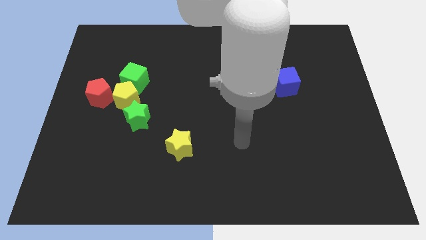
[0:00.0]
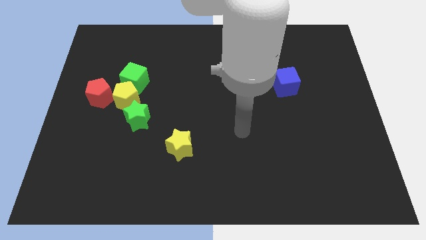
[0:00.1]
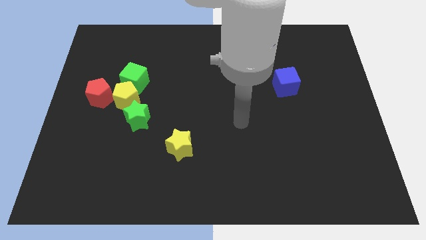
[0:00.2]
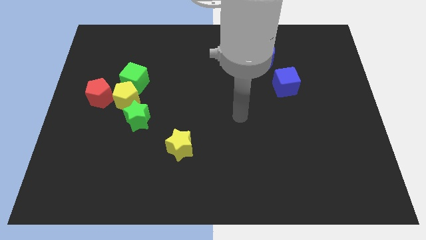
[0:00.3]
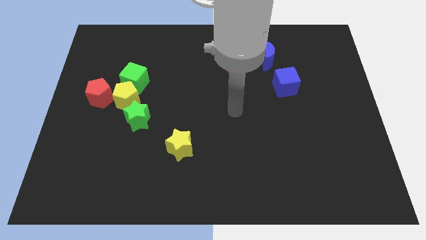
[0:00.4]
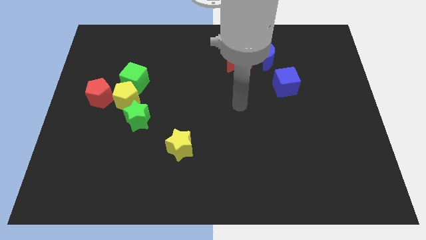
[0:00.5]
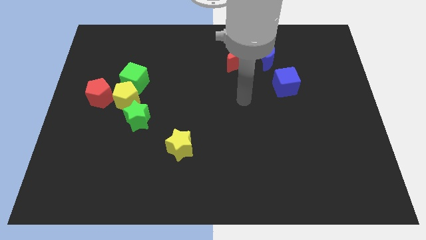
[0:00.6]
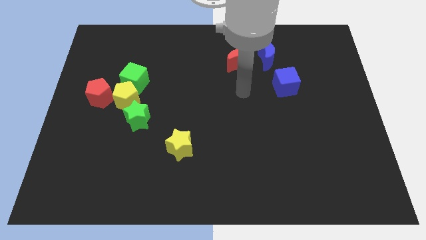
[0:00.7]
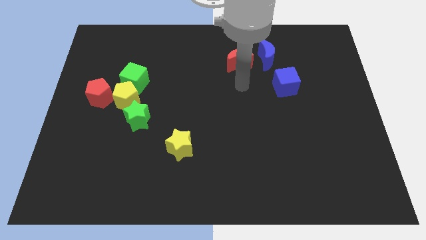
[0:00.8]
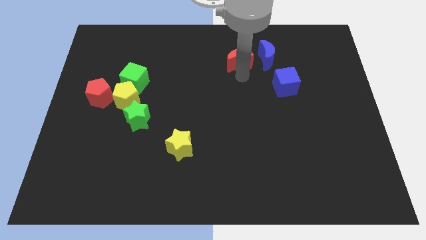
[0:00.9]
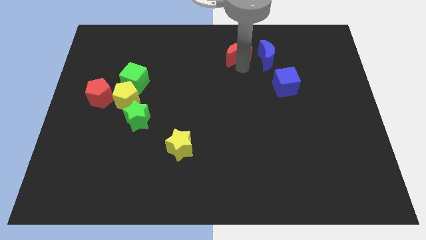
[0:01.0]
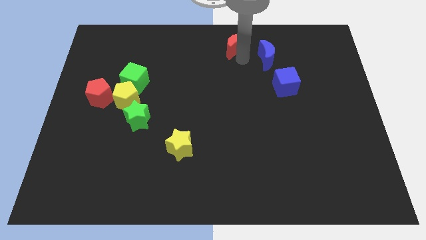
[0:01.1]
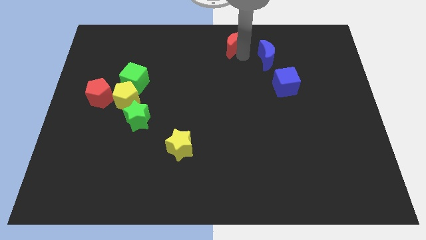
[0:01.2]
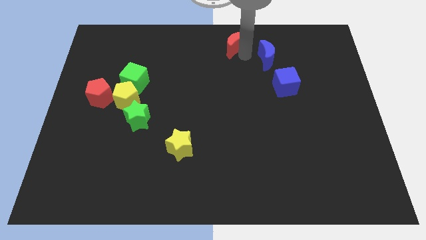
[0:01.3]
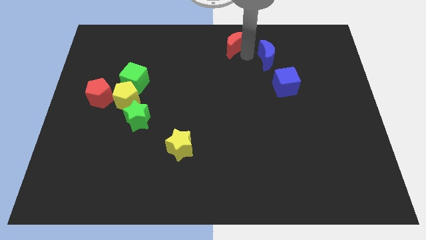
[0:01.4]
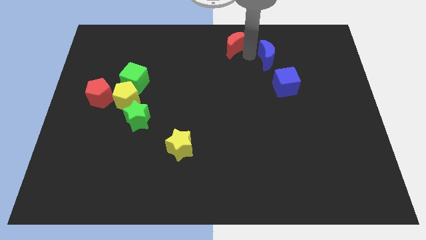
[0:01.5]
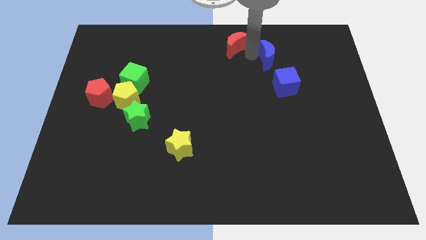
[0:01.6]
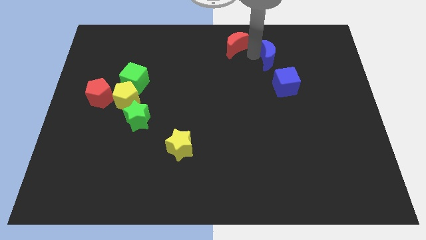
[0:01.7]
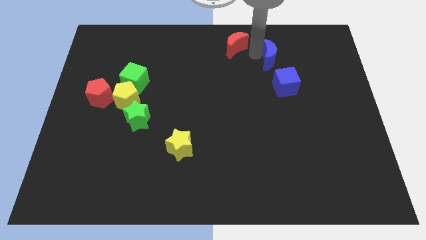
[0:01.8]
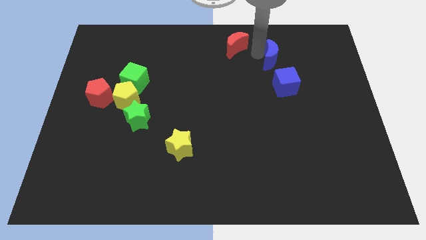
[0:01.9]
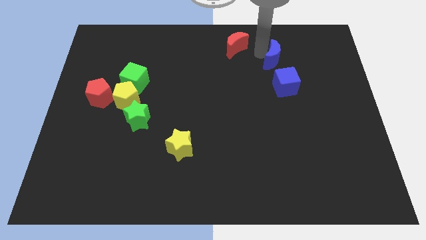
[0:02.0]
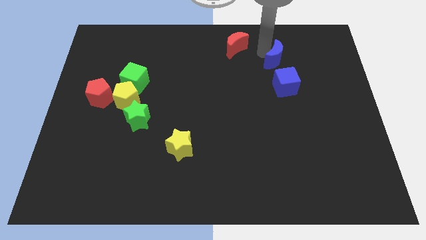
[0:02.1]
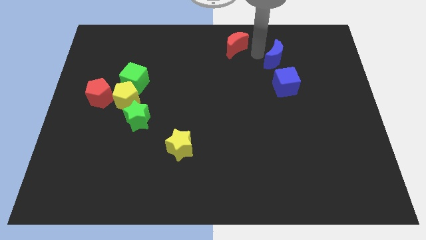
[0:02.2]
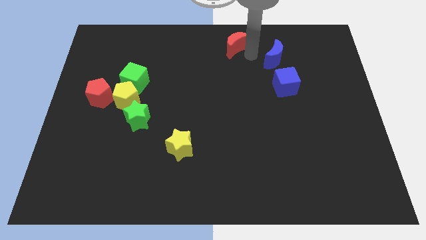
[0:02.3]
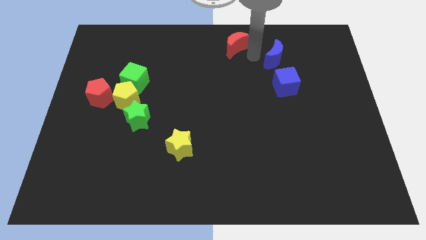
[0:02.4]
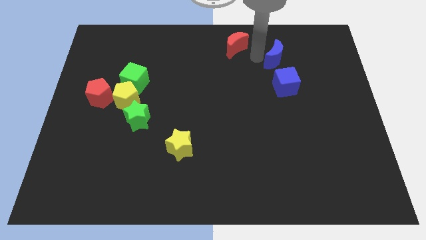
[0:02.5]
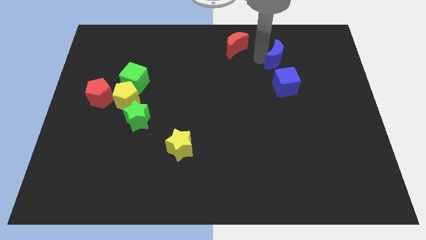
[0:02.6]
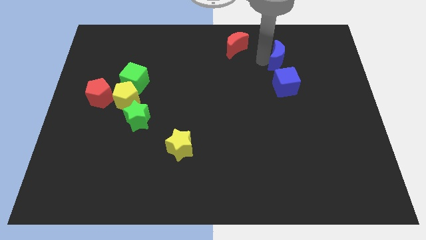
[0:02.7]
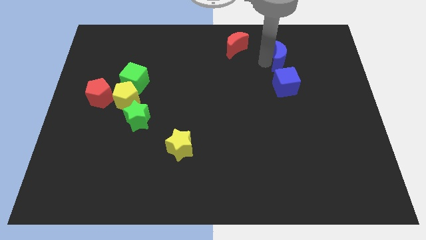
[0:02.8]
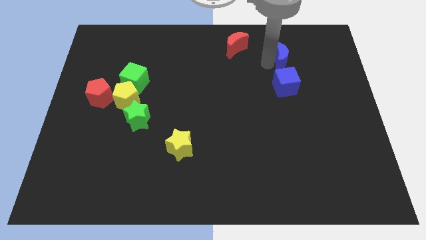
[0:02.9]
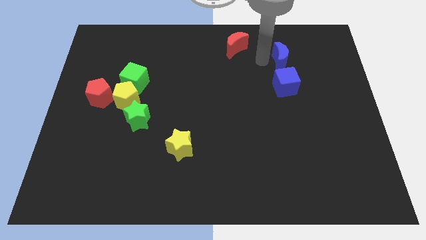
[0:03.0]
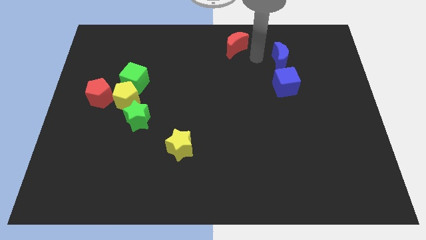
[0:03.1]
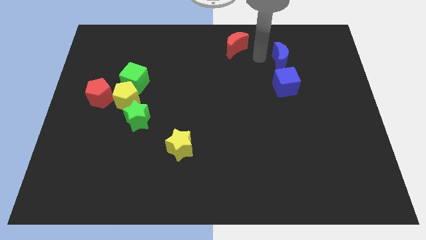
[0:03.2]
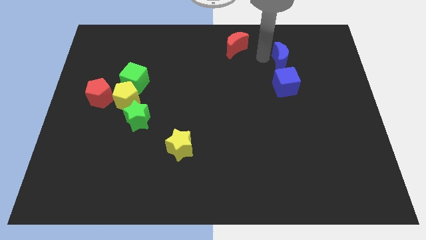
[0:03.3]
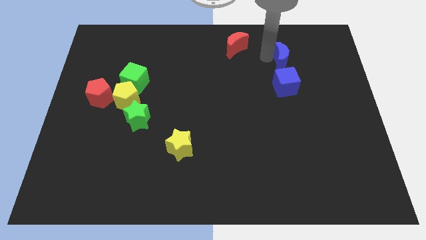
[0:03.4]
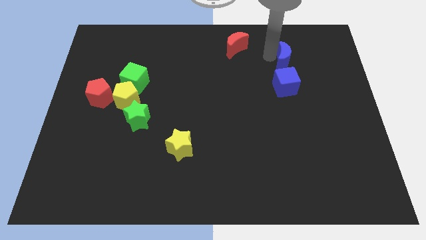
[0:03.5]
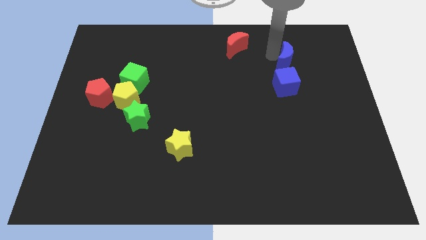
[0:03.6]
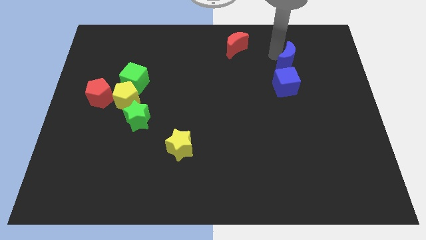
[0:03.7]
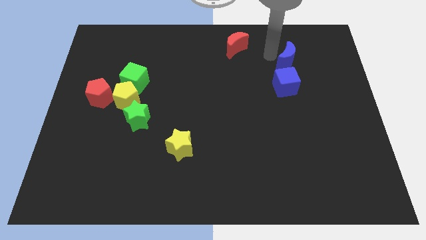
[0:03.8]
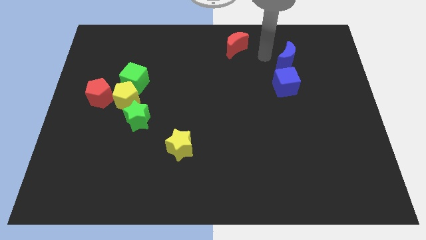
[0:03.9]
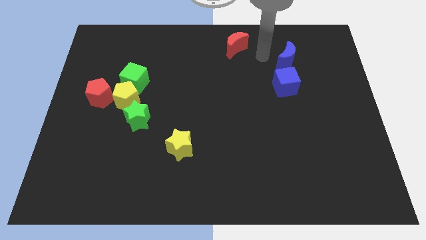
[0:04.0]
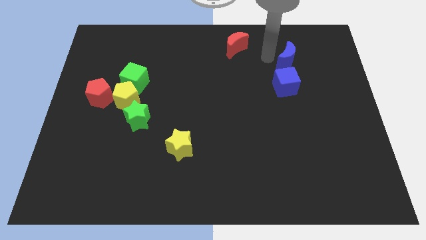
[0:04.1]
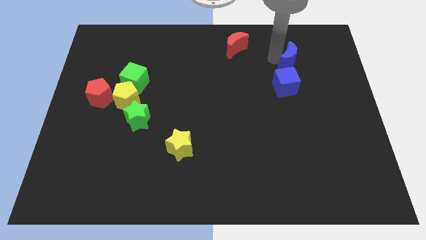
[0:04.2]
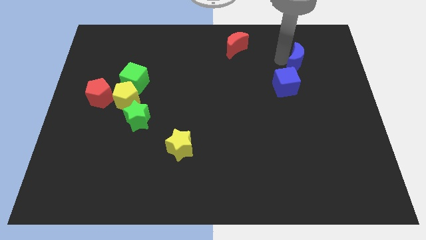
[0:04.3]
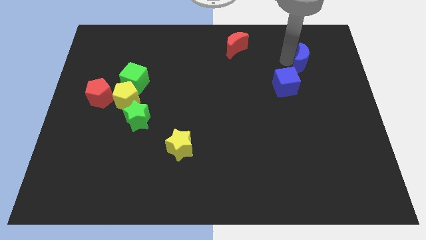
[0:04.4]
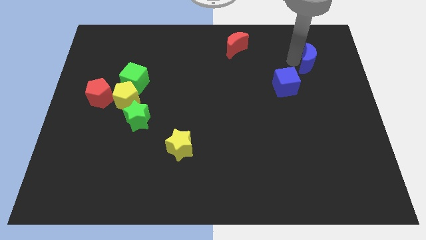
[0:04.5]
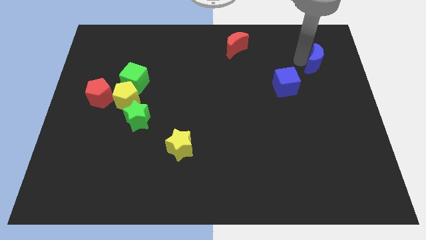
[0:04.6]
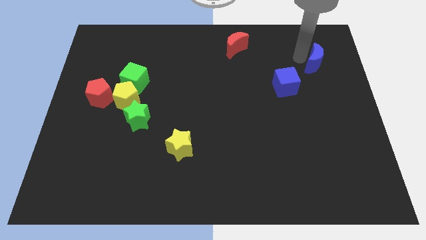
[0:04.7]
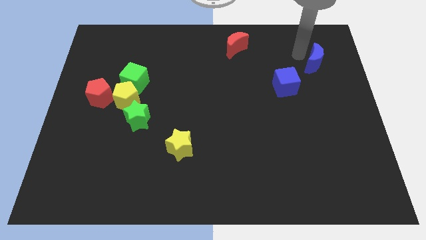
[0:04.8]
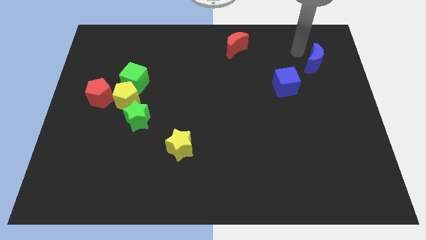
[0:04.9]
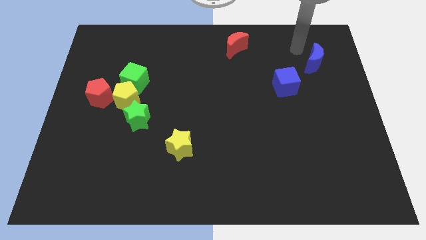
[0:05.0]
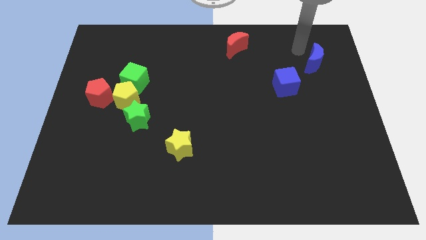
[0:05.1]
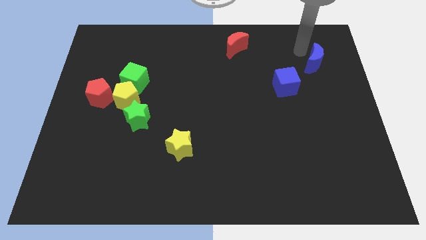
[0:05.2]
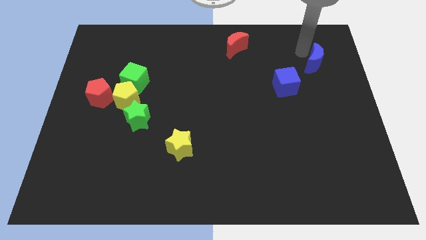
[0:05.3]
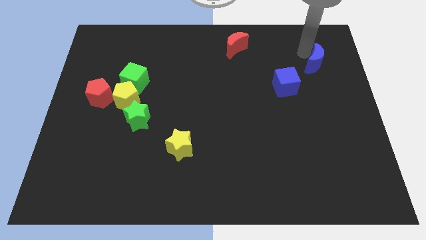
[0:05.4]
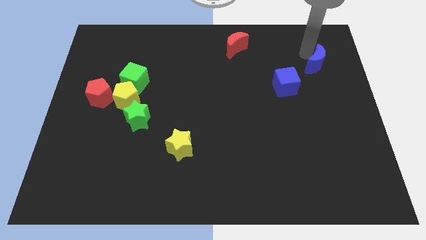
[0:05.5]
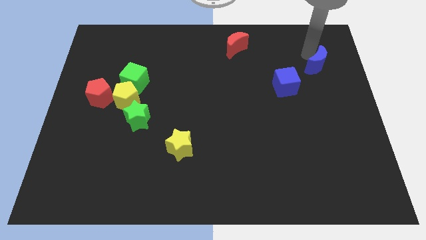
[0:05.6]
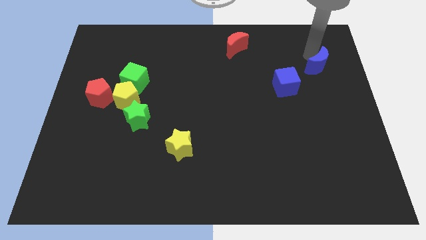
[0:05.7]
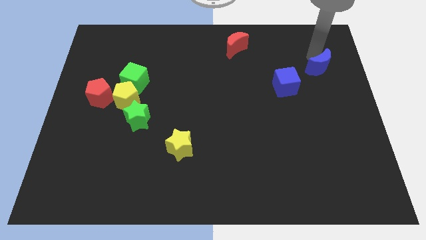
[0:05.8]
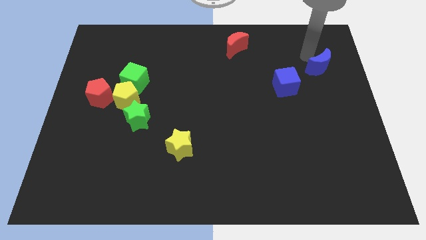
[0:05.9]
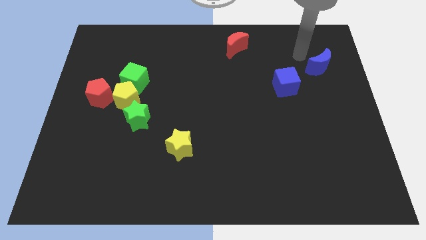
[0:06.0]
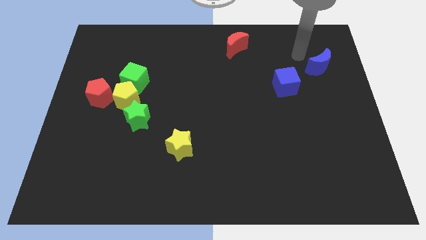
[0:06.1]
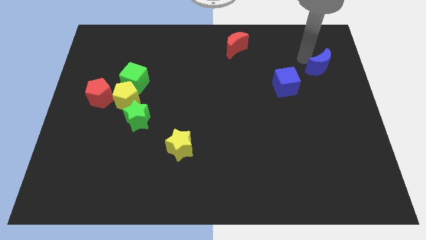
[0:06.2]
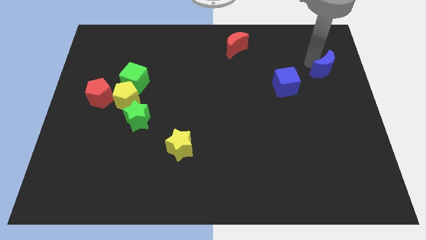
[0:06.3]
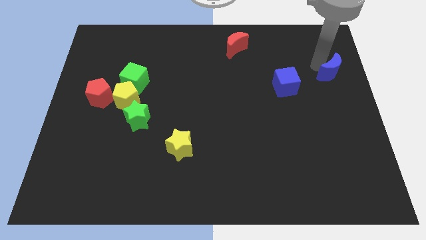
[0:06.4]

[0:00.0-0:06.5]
push the blue moon to the right side of the board
